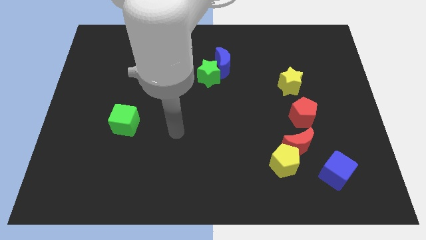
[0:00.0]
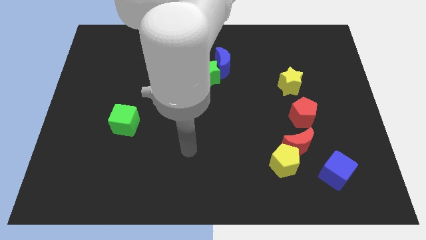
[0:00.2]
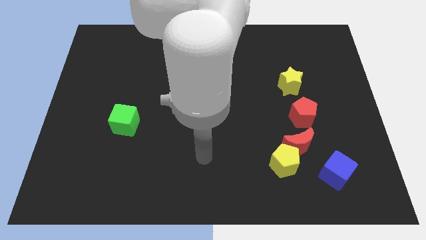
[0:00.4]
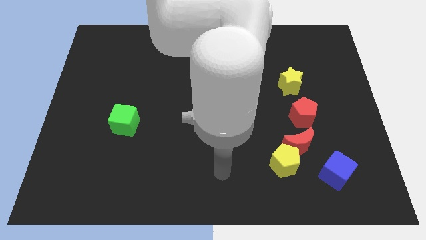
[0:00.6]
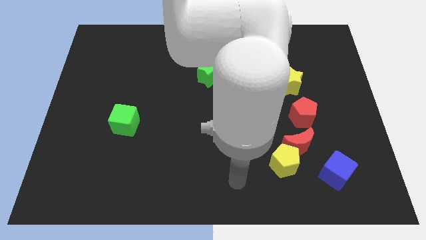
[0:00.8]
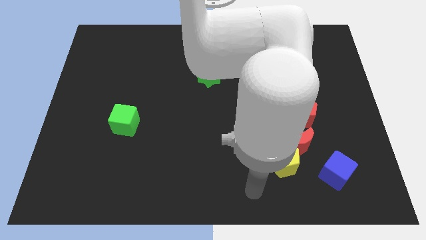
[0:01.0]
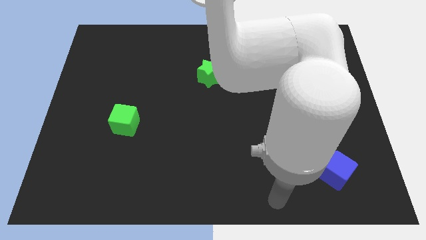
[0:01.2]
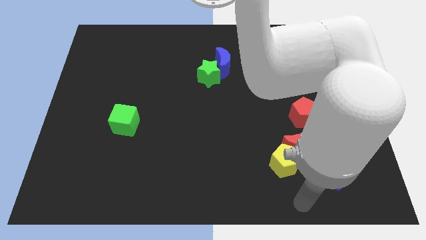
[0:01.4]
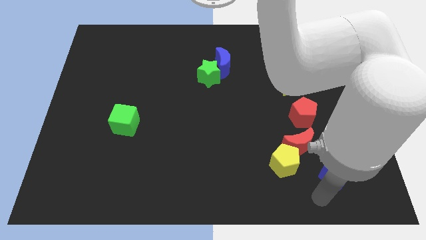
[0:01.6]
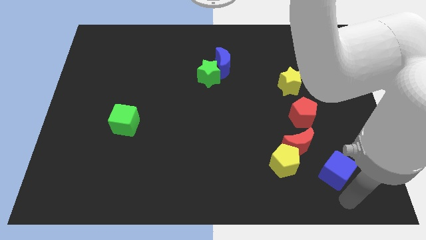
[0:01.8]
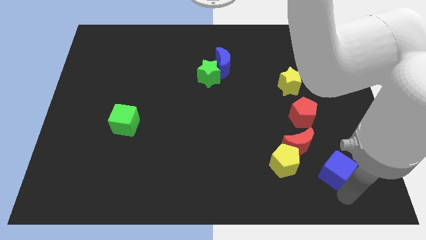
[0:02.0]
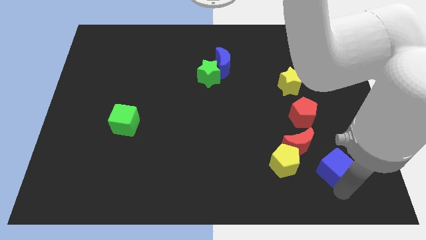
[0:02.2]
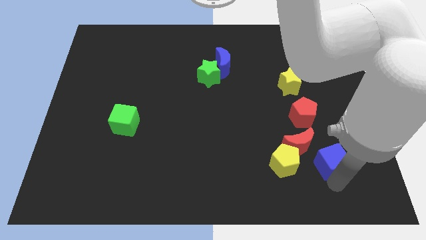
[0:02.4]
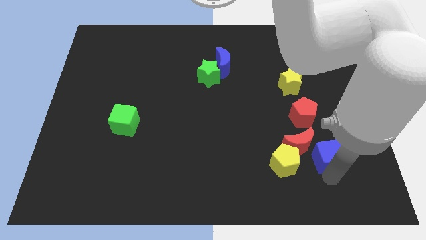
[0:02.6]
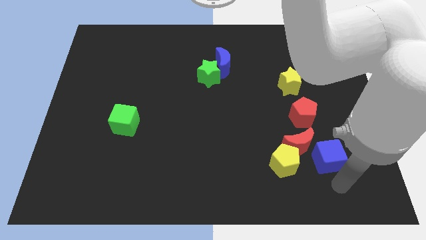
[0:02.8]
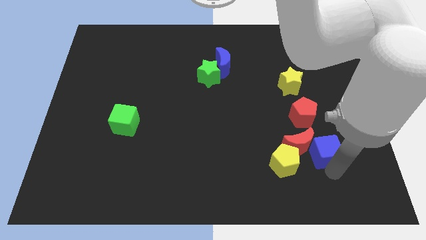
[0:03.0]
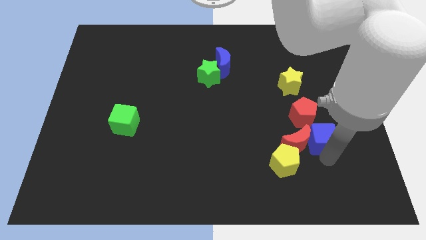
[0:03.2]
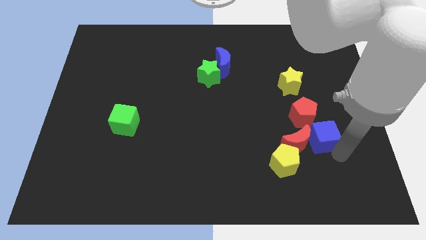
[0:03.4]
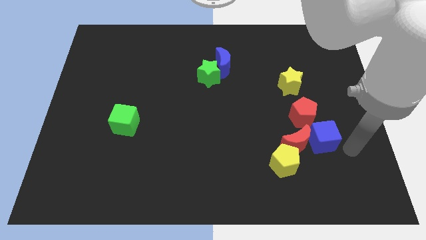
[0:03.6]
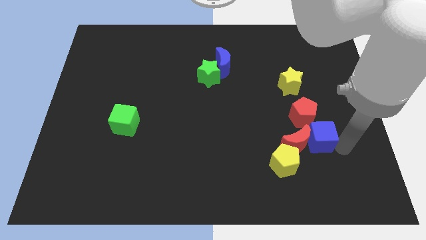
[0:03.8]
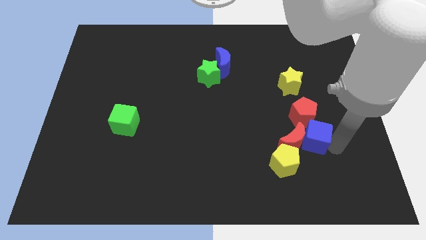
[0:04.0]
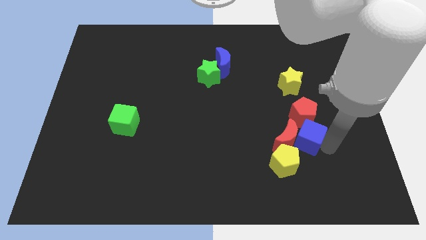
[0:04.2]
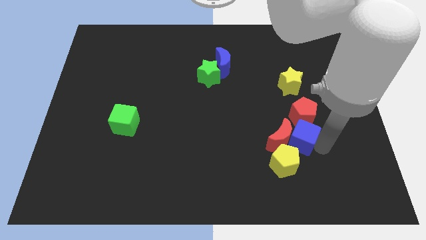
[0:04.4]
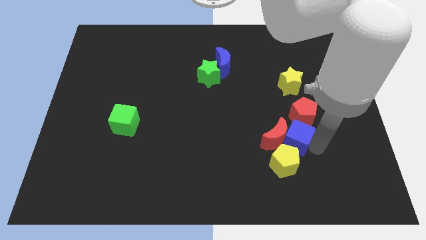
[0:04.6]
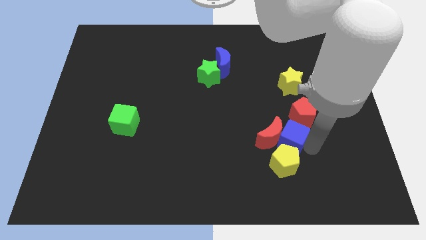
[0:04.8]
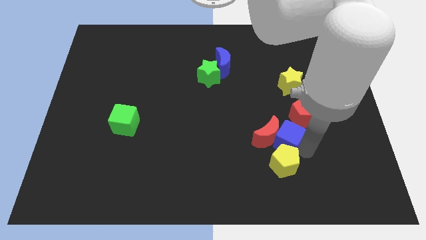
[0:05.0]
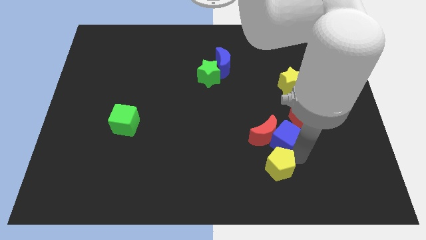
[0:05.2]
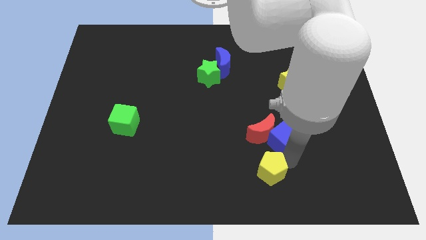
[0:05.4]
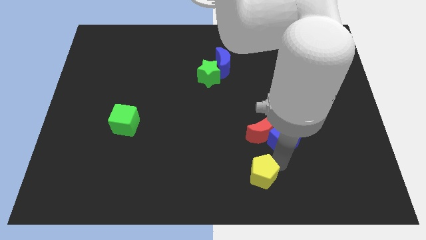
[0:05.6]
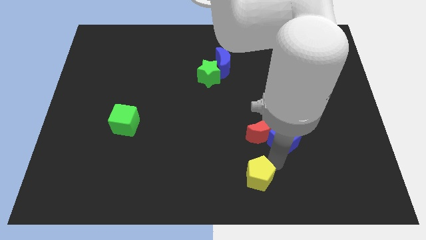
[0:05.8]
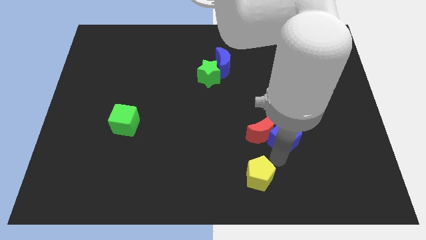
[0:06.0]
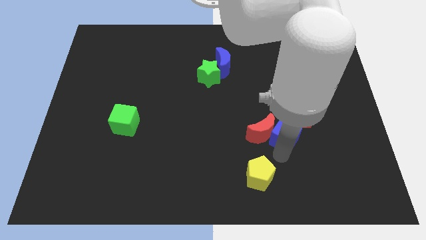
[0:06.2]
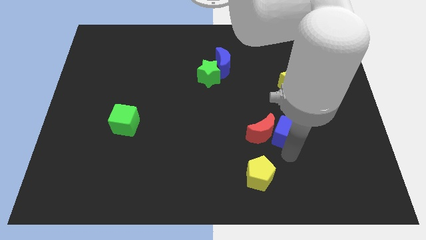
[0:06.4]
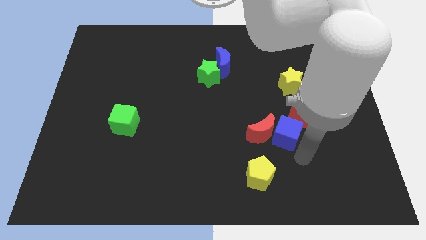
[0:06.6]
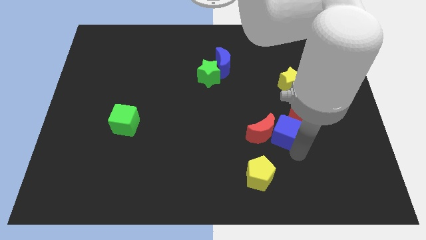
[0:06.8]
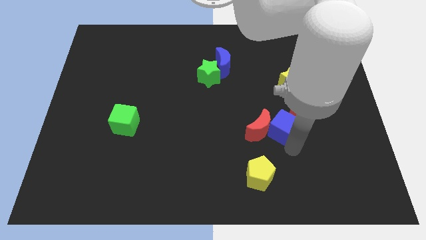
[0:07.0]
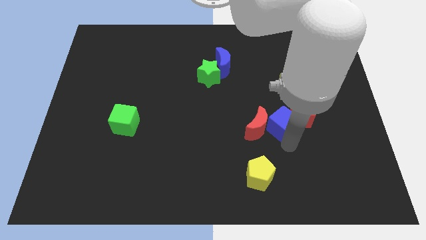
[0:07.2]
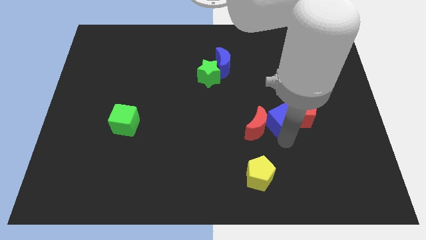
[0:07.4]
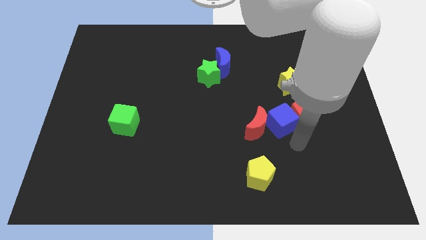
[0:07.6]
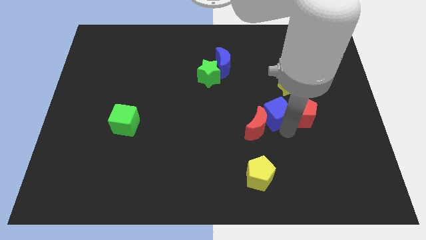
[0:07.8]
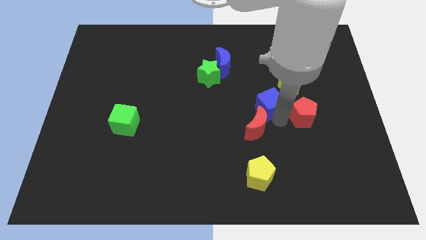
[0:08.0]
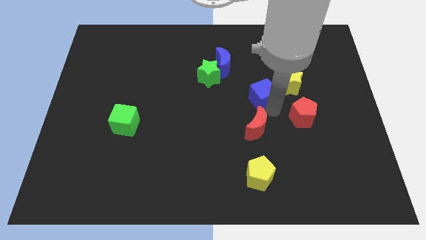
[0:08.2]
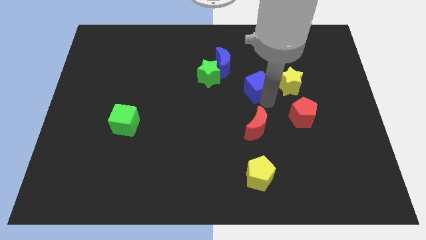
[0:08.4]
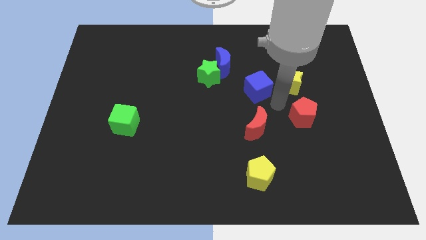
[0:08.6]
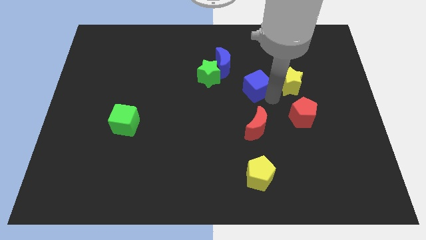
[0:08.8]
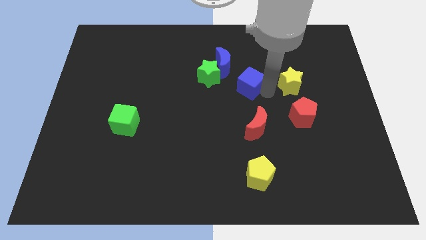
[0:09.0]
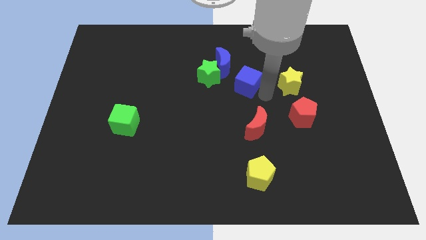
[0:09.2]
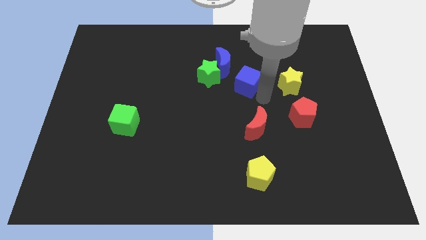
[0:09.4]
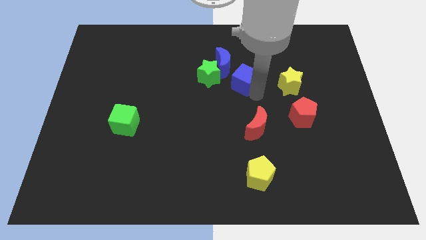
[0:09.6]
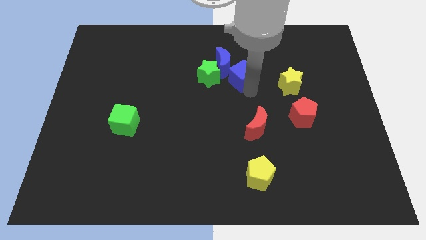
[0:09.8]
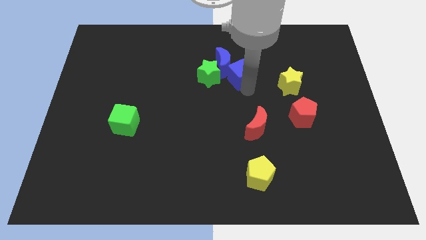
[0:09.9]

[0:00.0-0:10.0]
push the blue cube close to the blue moon

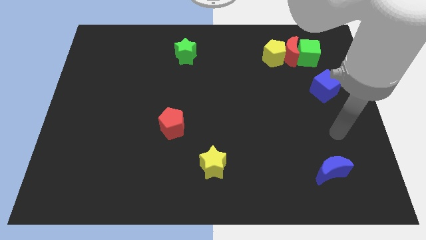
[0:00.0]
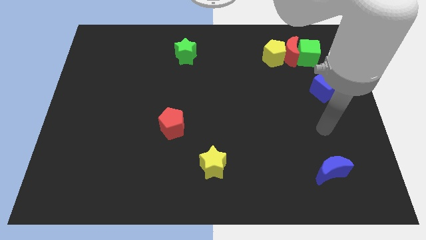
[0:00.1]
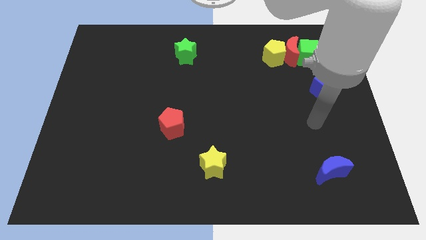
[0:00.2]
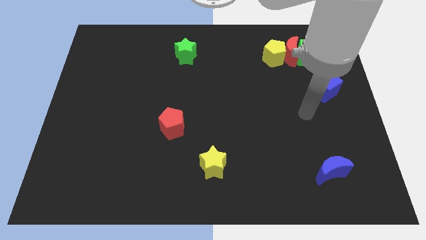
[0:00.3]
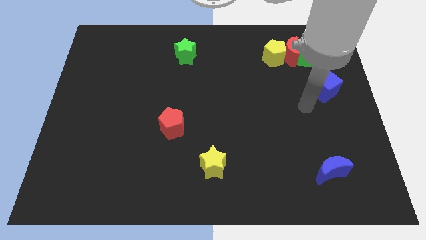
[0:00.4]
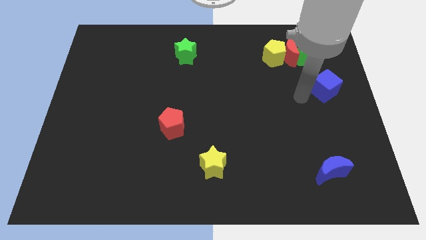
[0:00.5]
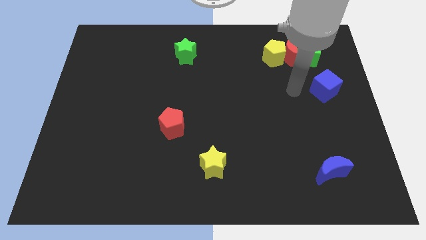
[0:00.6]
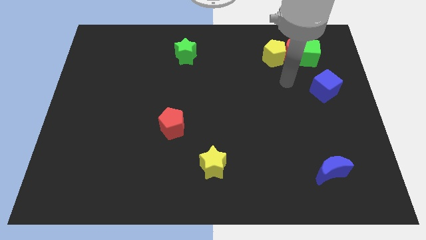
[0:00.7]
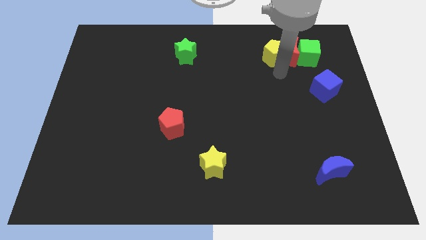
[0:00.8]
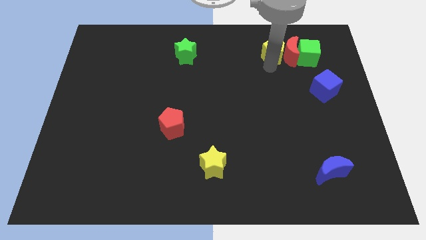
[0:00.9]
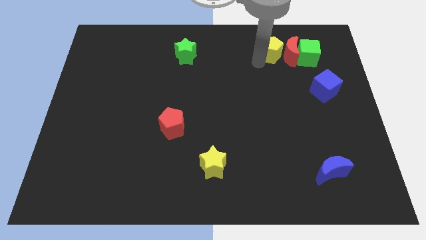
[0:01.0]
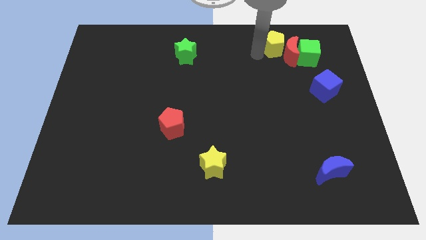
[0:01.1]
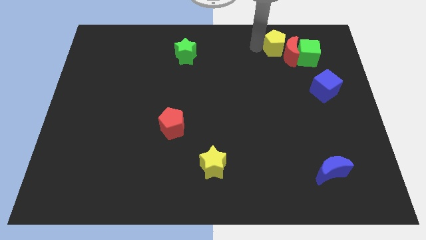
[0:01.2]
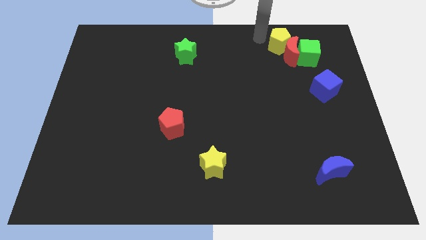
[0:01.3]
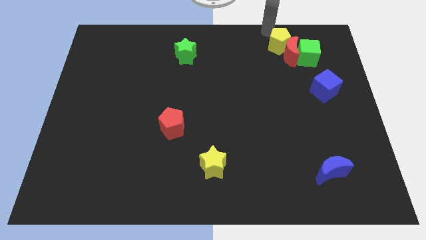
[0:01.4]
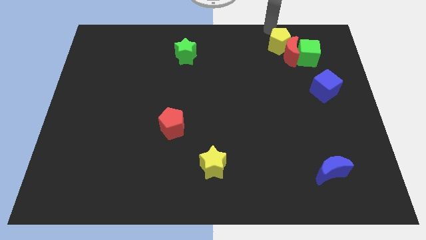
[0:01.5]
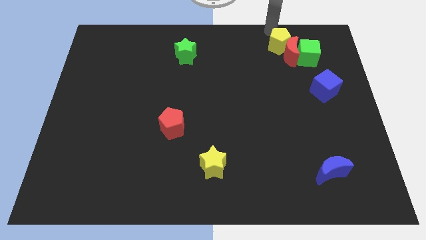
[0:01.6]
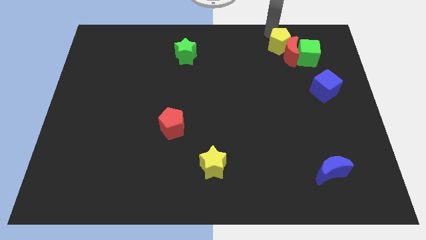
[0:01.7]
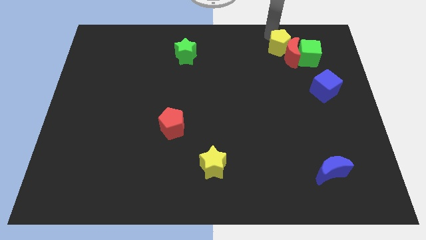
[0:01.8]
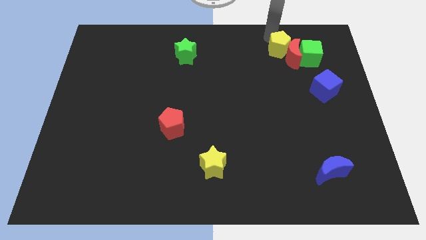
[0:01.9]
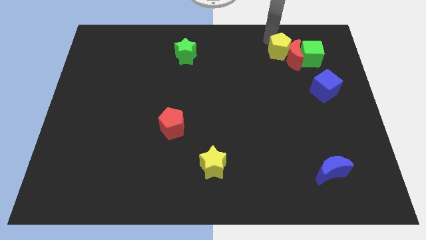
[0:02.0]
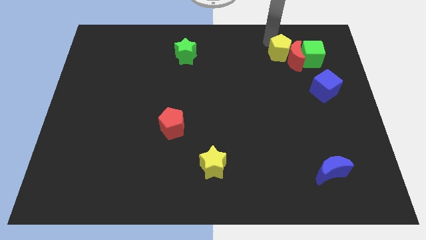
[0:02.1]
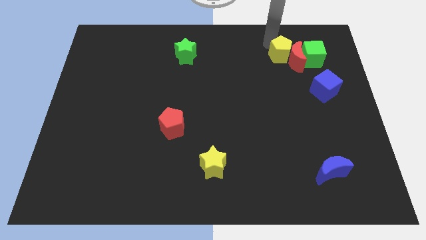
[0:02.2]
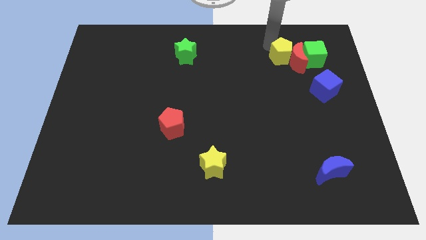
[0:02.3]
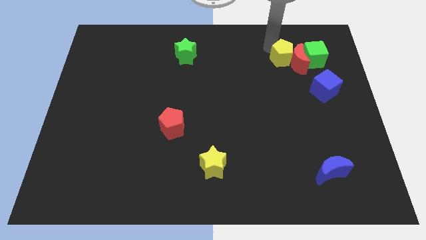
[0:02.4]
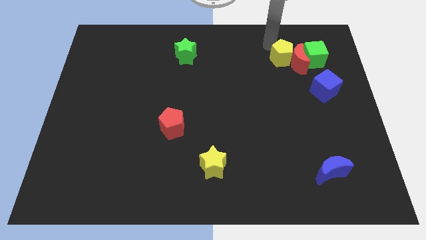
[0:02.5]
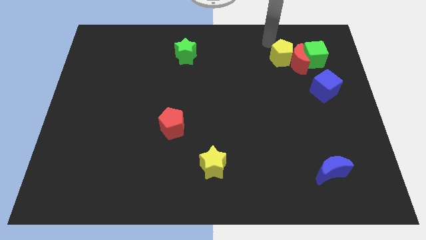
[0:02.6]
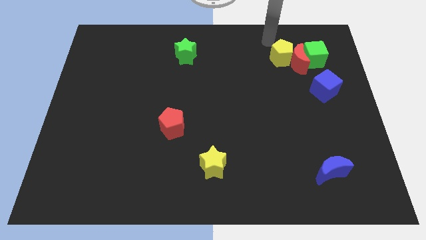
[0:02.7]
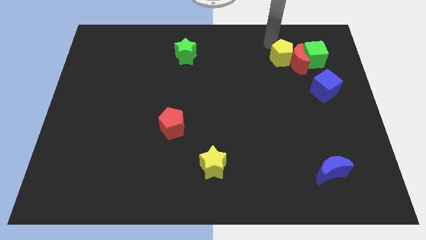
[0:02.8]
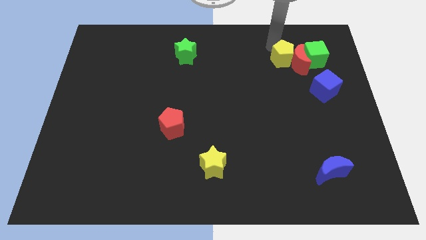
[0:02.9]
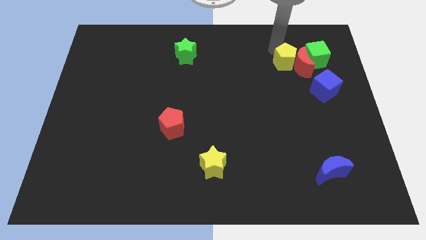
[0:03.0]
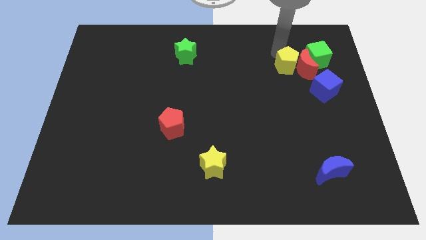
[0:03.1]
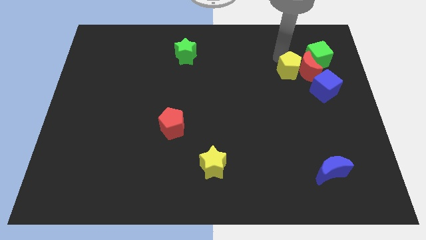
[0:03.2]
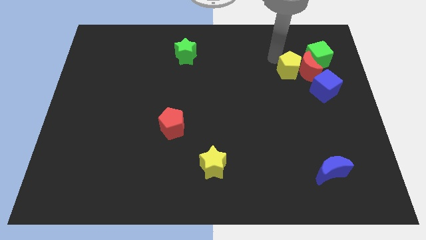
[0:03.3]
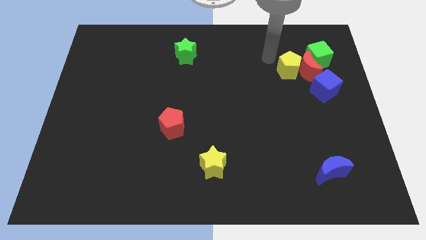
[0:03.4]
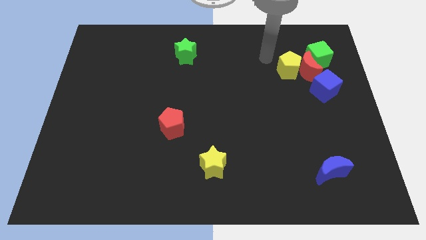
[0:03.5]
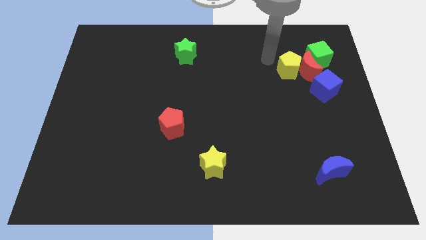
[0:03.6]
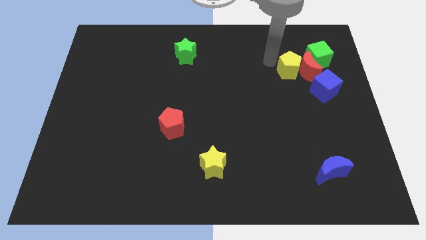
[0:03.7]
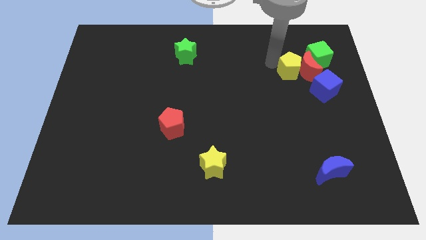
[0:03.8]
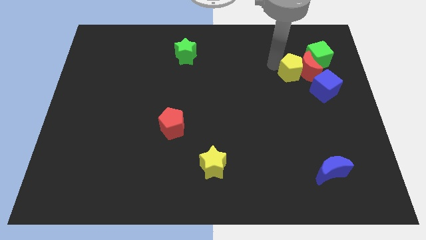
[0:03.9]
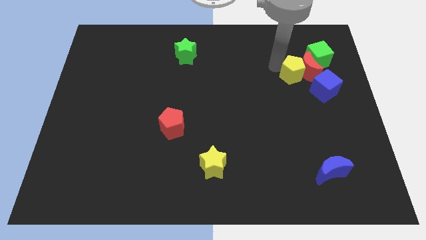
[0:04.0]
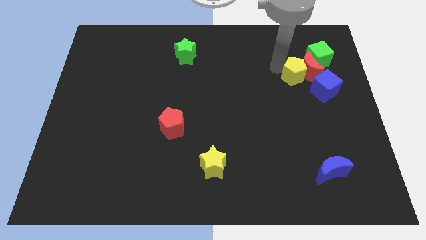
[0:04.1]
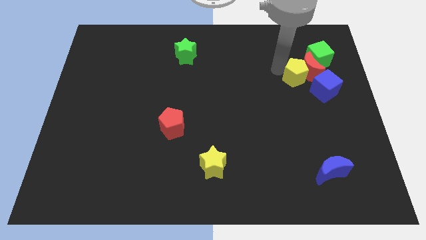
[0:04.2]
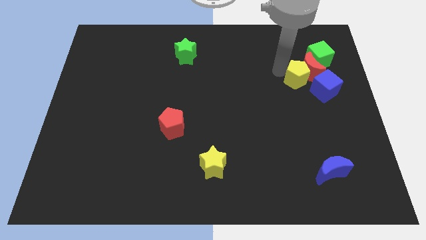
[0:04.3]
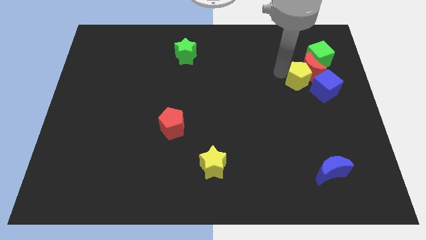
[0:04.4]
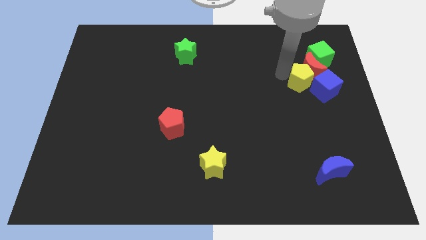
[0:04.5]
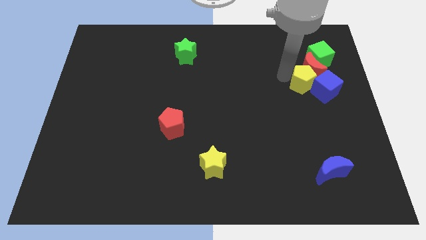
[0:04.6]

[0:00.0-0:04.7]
put the yellow pentagon to the blue cube
